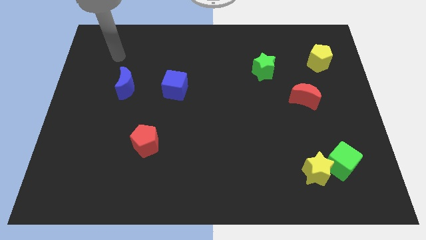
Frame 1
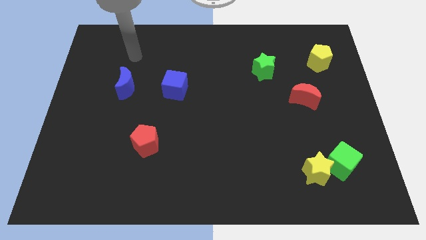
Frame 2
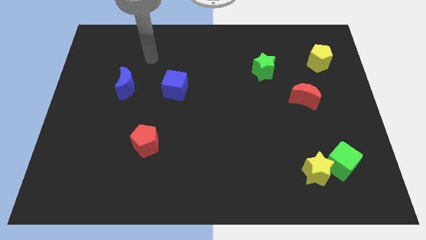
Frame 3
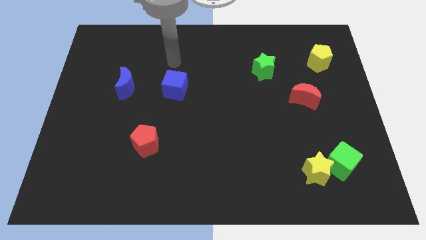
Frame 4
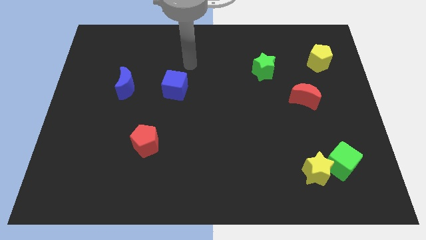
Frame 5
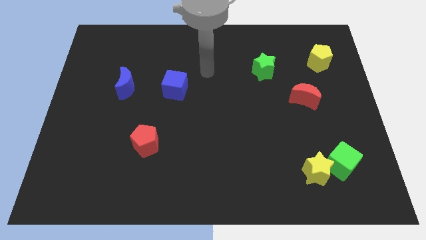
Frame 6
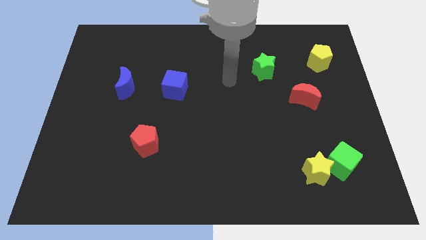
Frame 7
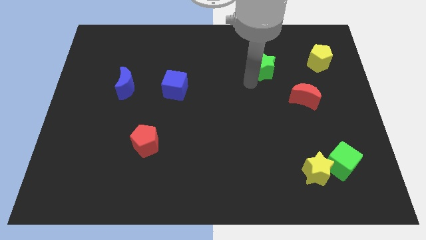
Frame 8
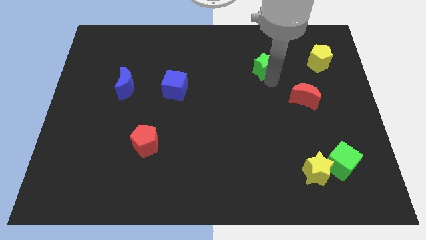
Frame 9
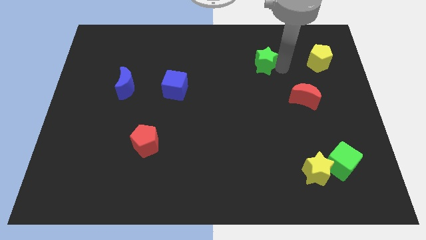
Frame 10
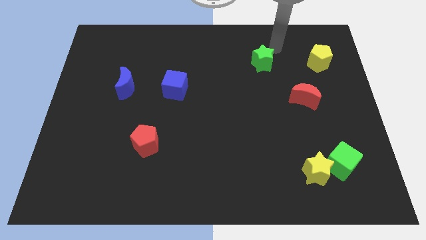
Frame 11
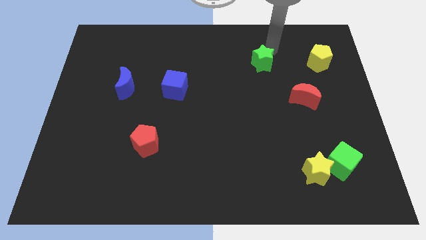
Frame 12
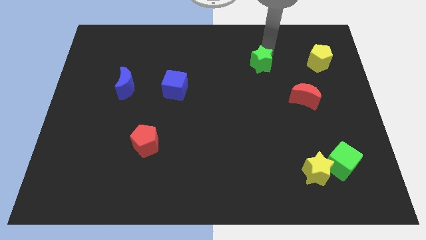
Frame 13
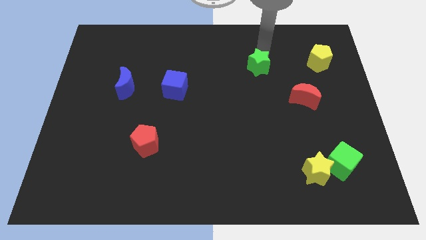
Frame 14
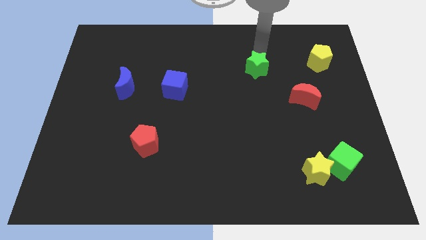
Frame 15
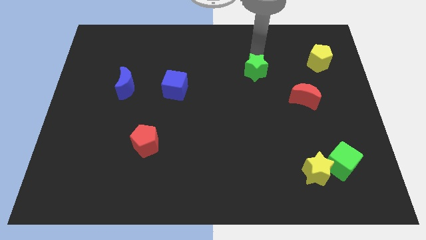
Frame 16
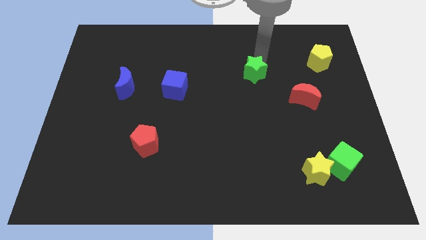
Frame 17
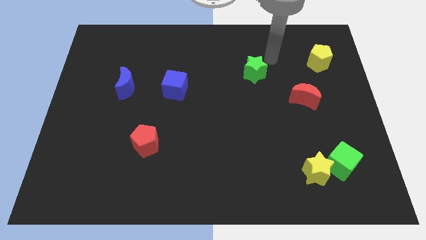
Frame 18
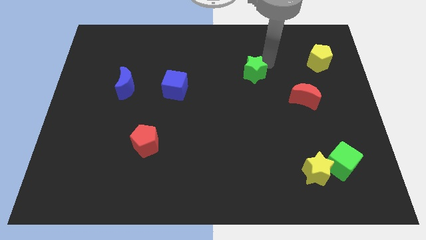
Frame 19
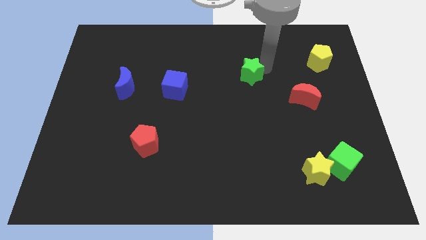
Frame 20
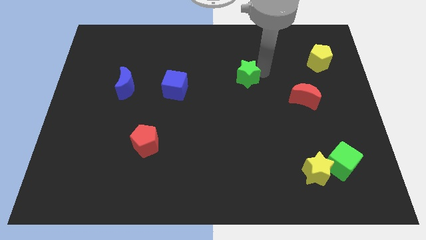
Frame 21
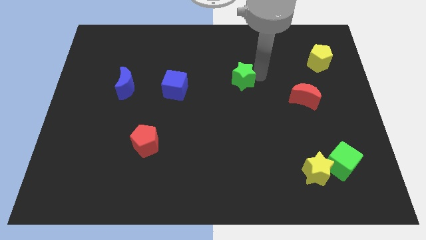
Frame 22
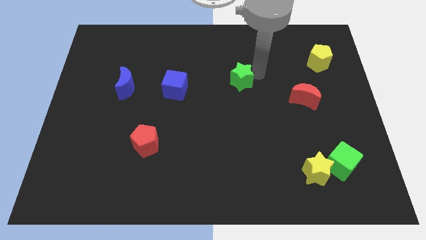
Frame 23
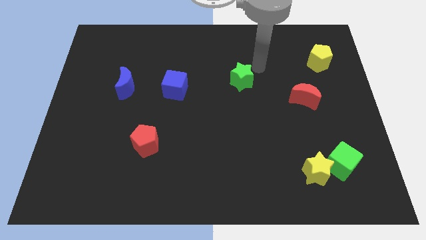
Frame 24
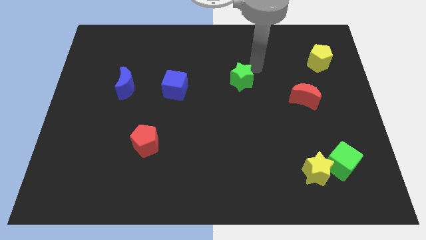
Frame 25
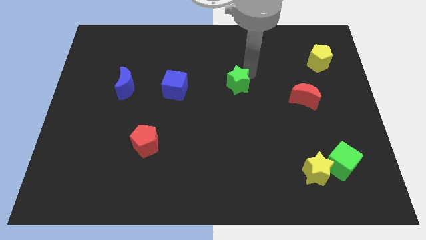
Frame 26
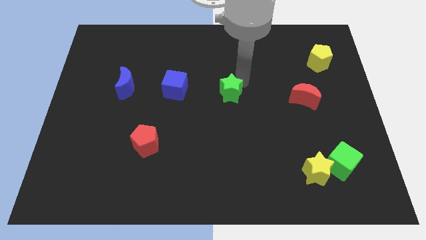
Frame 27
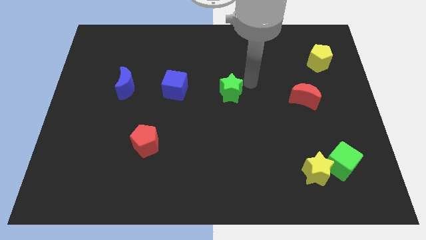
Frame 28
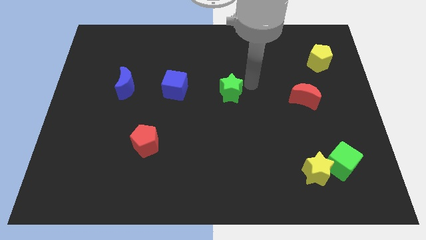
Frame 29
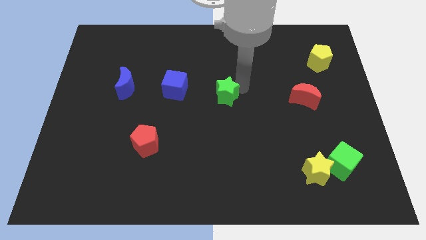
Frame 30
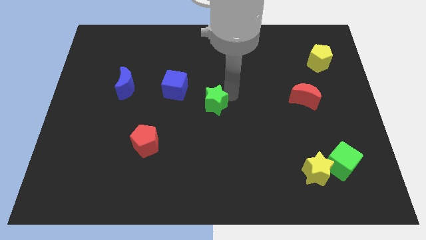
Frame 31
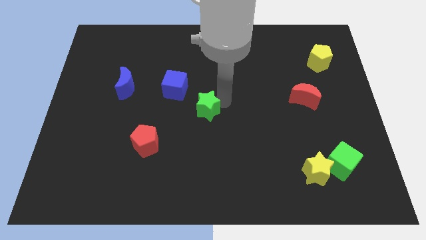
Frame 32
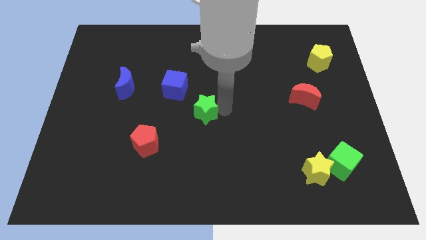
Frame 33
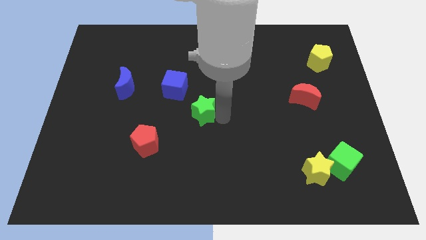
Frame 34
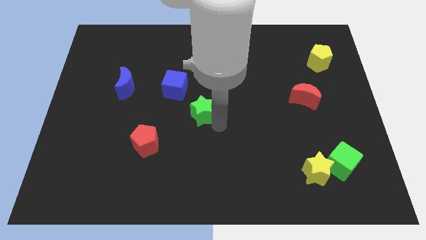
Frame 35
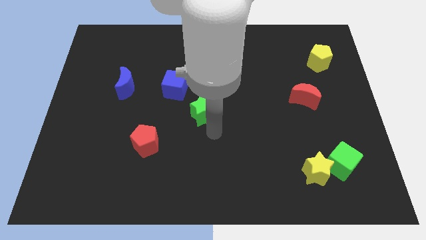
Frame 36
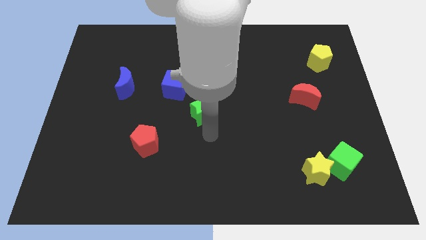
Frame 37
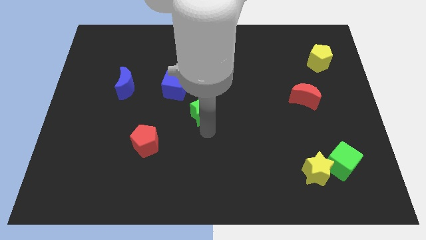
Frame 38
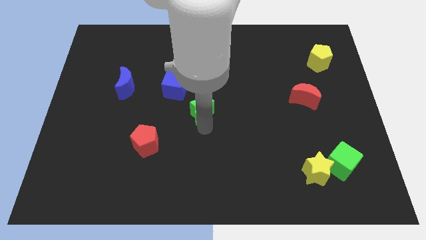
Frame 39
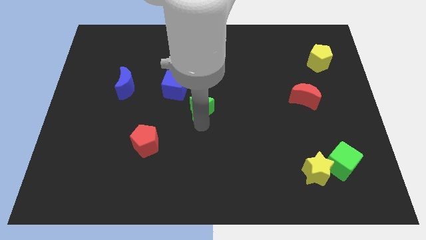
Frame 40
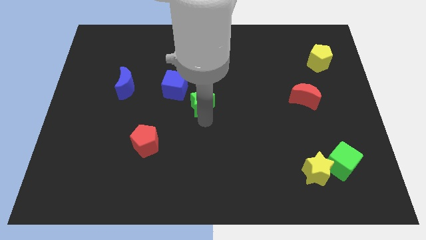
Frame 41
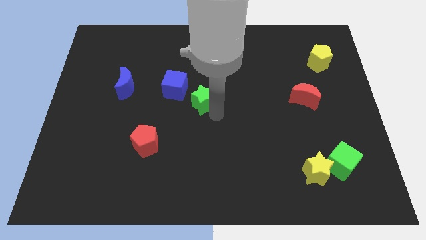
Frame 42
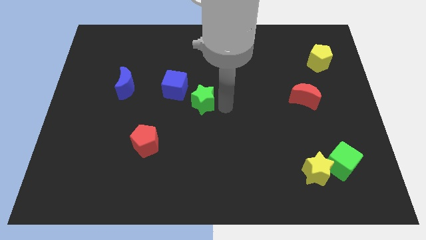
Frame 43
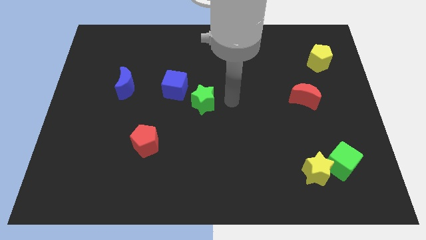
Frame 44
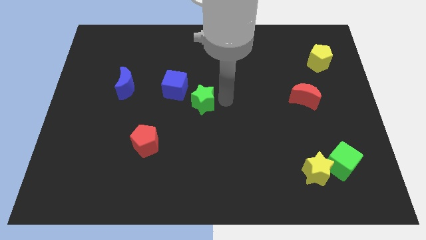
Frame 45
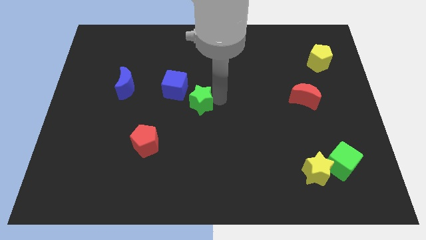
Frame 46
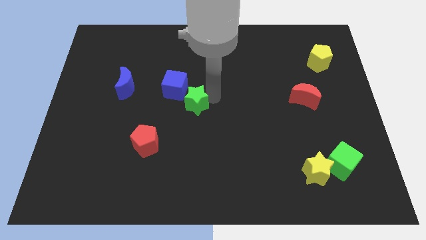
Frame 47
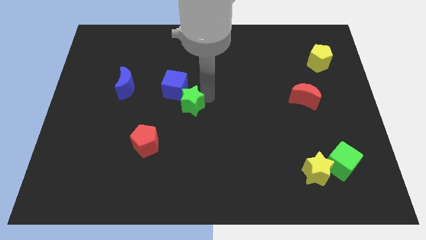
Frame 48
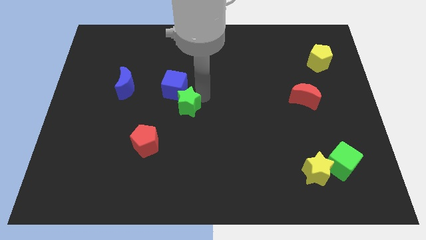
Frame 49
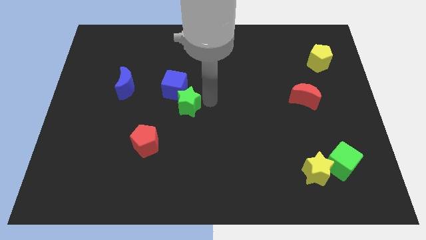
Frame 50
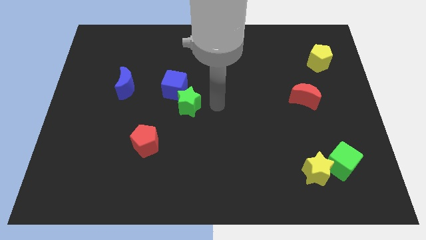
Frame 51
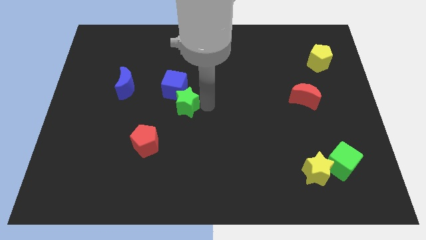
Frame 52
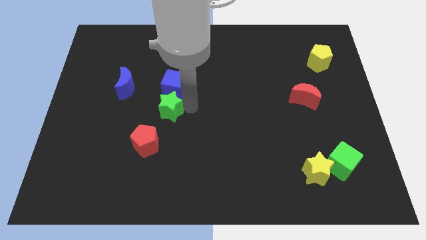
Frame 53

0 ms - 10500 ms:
slide the green star to the bottom left side of the blue cube

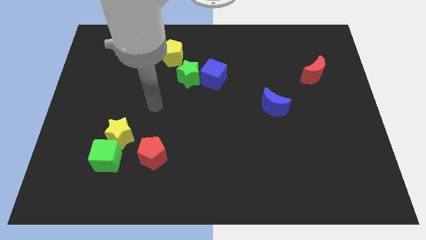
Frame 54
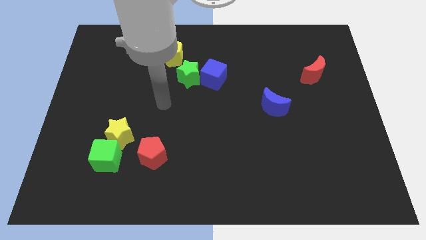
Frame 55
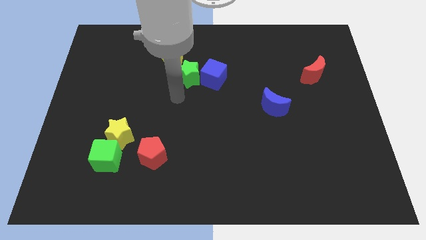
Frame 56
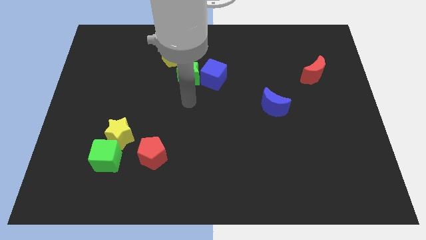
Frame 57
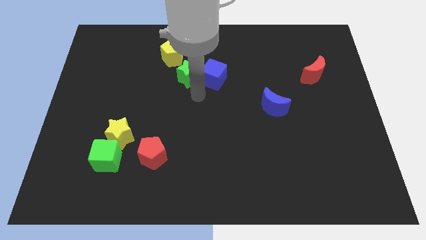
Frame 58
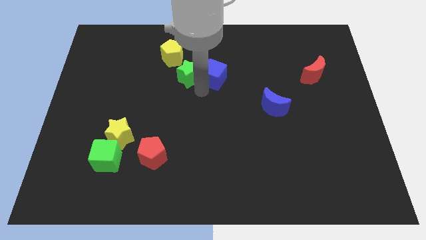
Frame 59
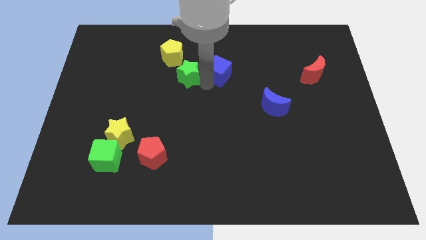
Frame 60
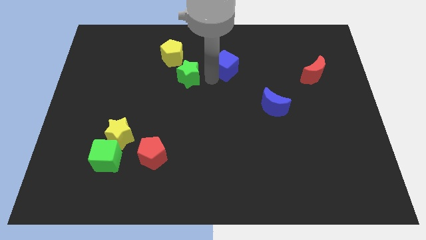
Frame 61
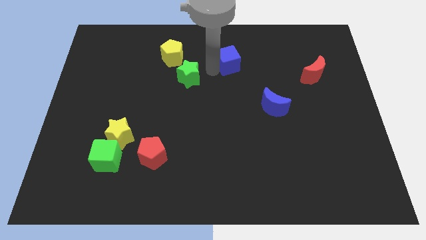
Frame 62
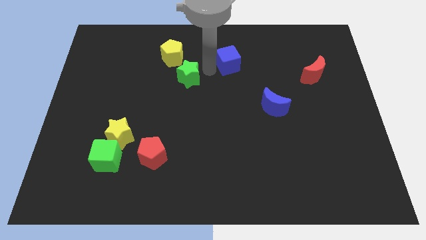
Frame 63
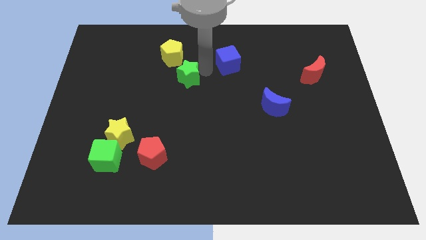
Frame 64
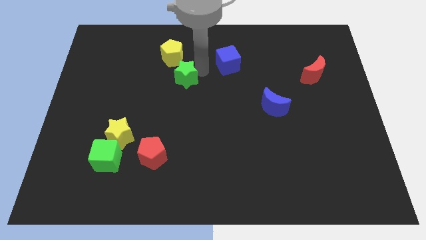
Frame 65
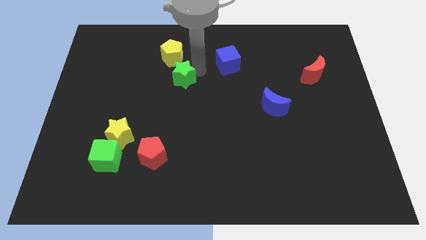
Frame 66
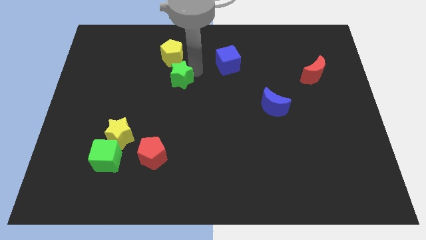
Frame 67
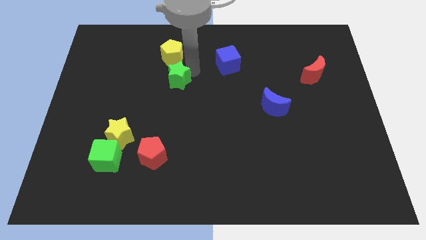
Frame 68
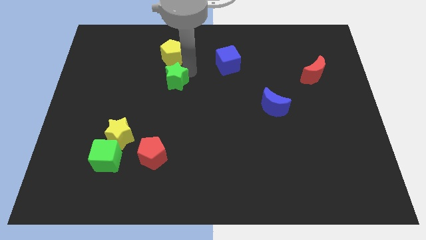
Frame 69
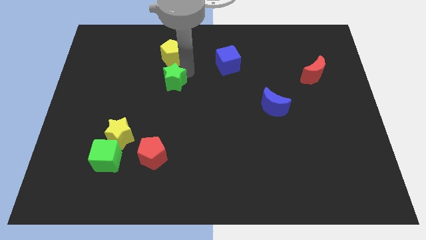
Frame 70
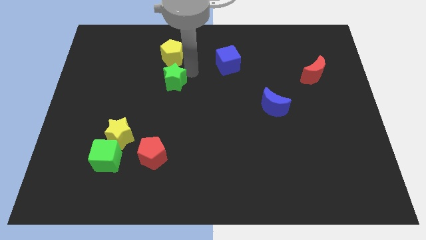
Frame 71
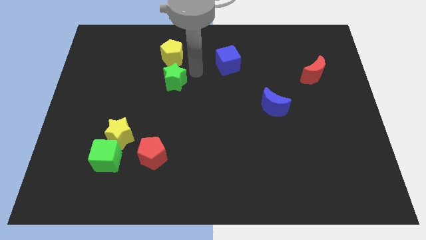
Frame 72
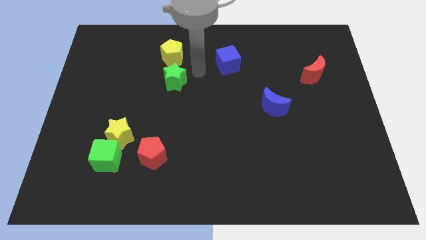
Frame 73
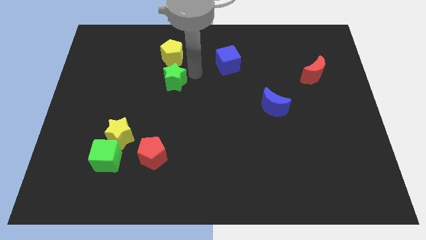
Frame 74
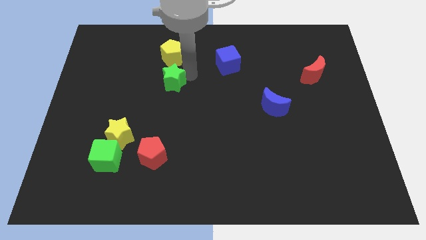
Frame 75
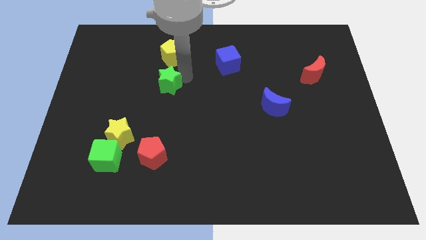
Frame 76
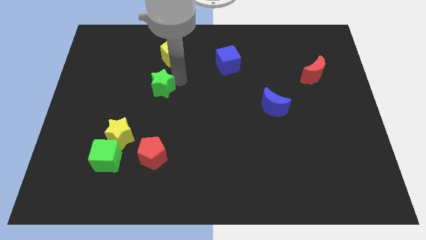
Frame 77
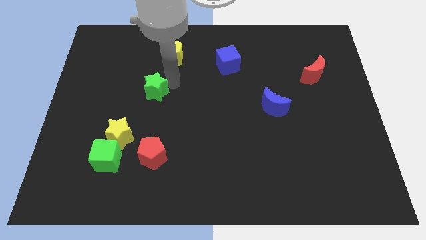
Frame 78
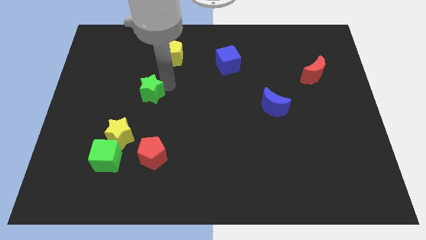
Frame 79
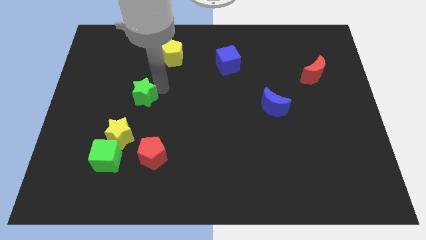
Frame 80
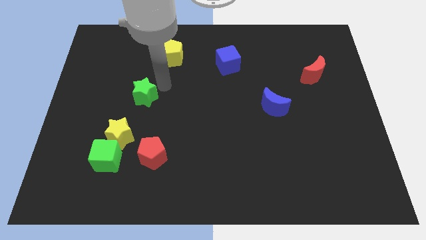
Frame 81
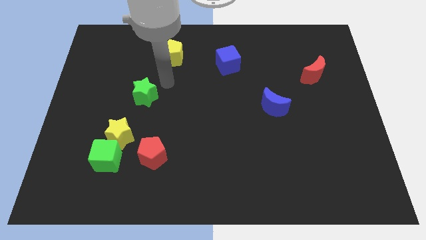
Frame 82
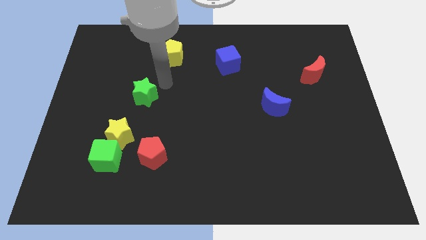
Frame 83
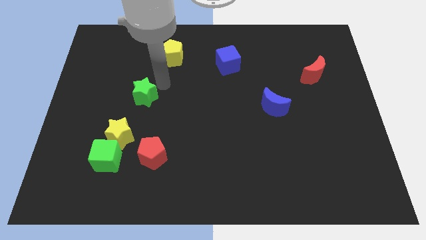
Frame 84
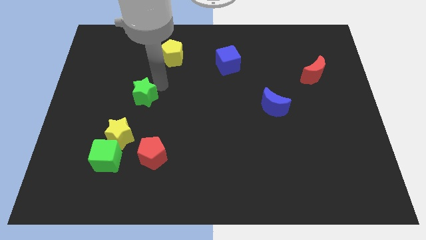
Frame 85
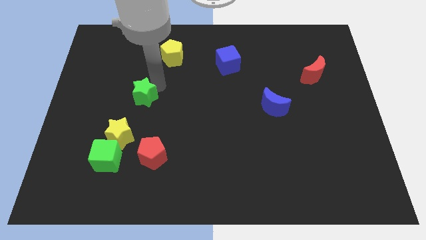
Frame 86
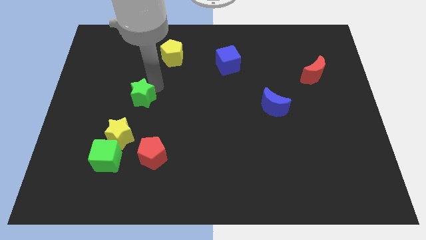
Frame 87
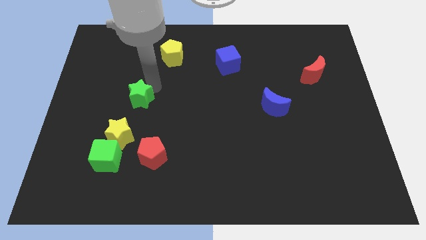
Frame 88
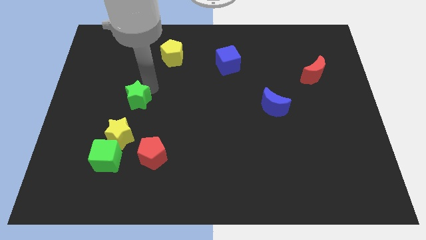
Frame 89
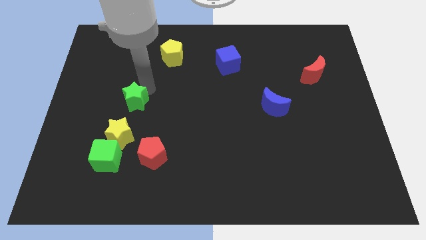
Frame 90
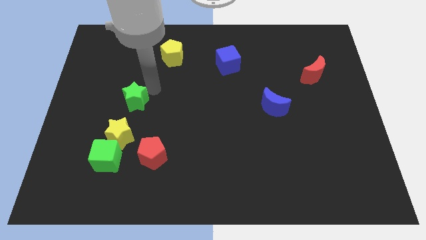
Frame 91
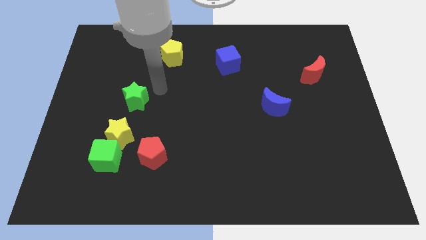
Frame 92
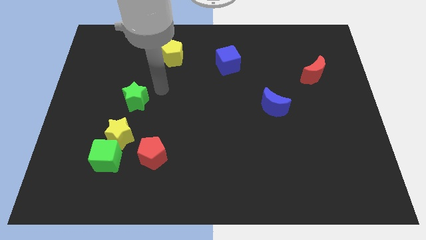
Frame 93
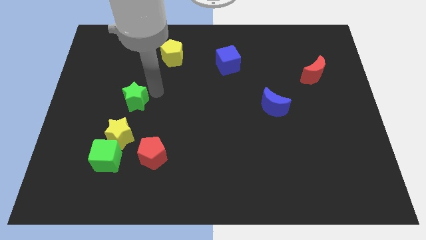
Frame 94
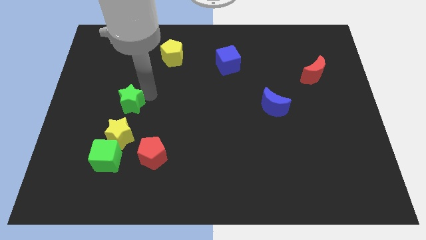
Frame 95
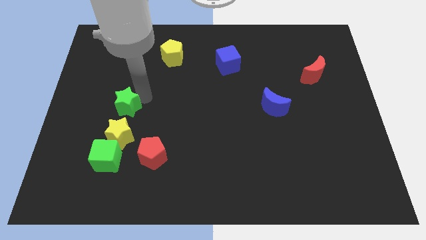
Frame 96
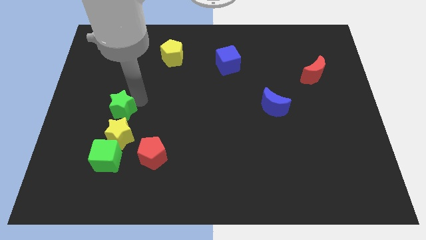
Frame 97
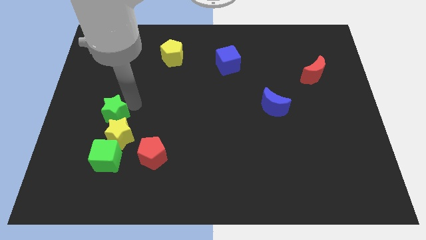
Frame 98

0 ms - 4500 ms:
put the green star diagonally up and to the left of the yellow star
